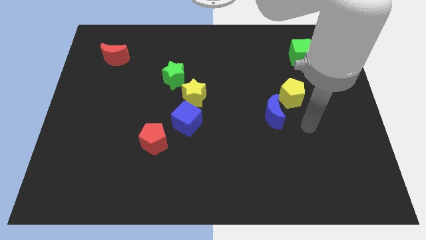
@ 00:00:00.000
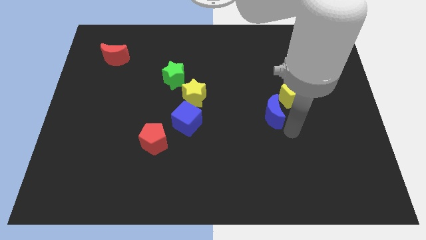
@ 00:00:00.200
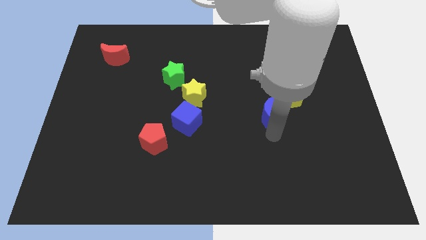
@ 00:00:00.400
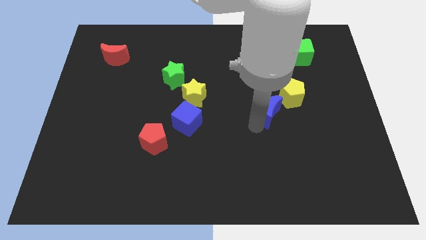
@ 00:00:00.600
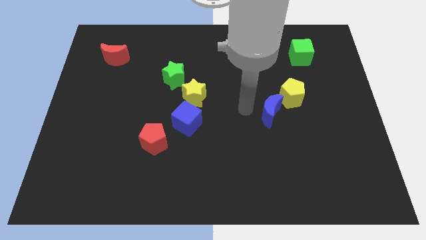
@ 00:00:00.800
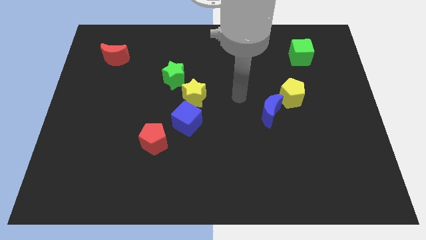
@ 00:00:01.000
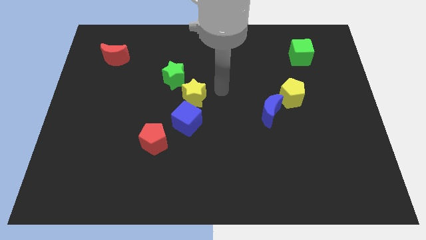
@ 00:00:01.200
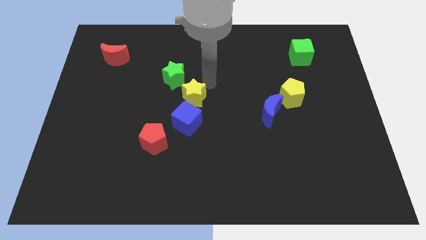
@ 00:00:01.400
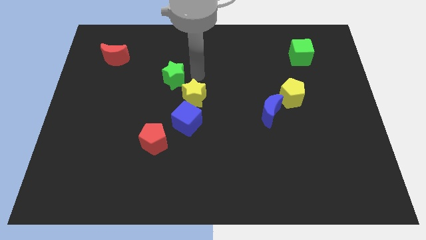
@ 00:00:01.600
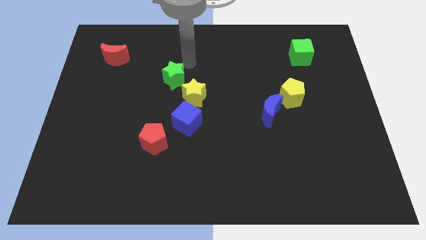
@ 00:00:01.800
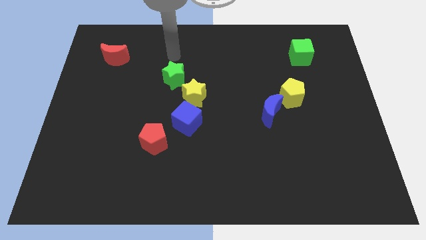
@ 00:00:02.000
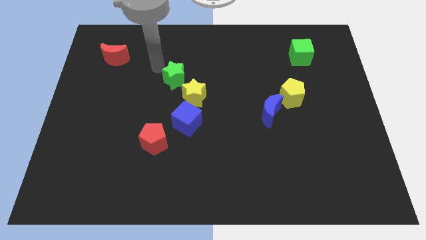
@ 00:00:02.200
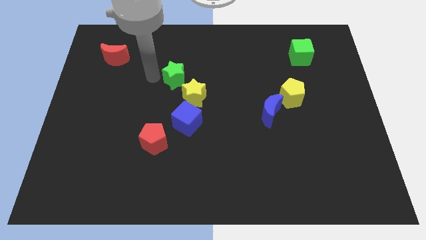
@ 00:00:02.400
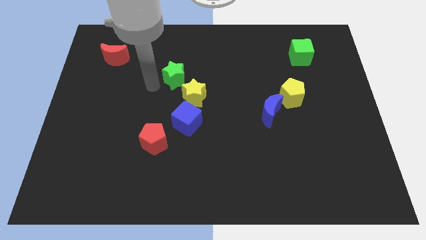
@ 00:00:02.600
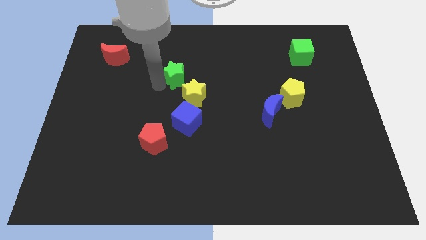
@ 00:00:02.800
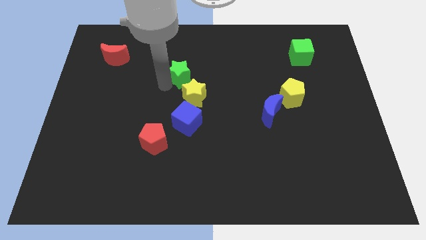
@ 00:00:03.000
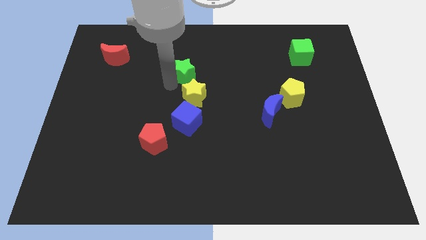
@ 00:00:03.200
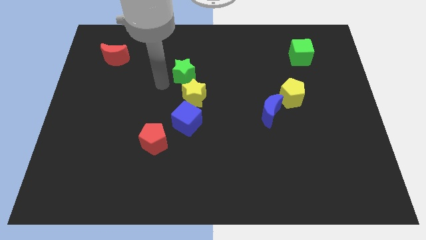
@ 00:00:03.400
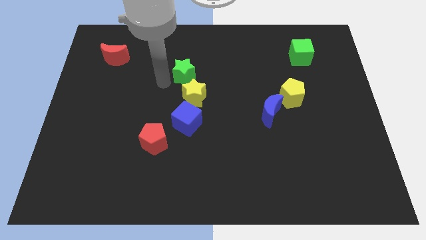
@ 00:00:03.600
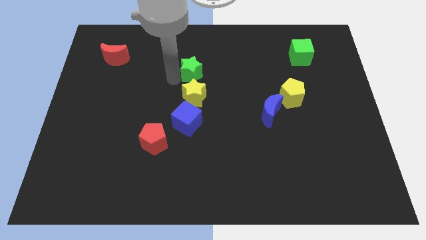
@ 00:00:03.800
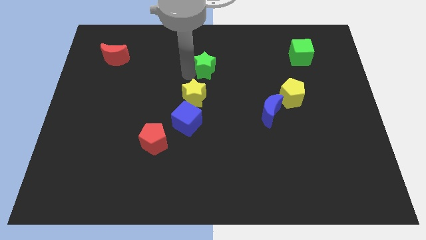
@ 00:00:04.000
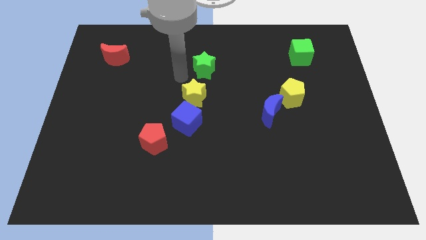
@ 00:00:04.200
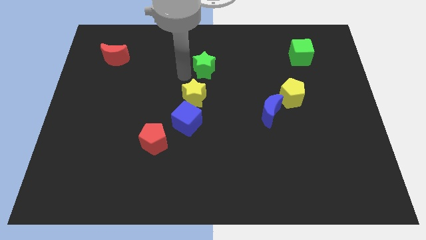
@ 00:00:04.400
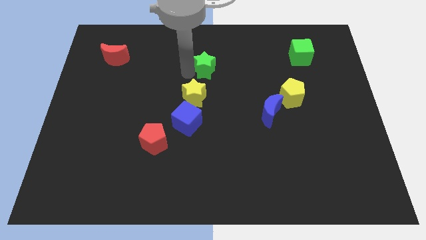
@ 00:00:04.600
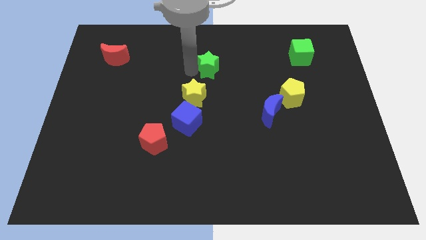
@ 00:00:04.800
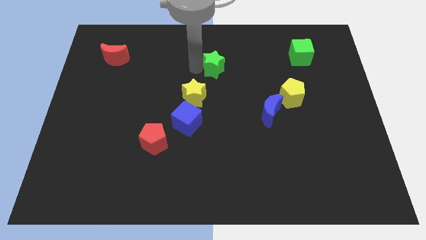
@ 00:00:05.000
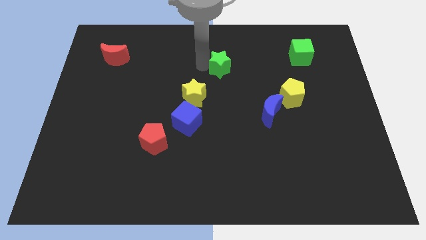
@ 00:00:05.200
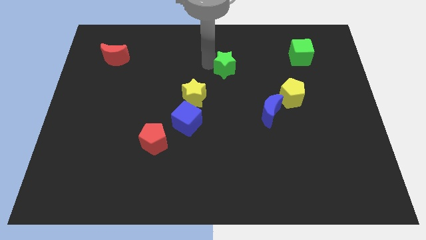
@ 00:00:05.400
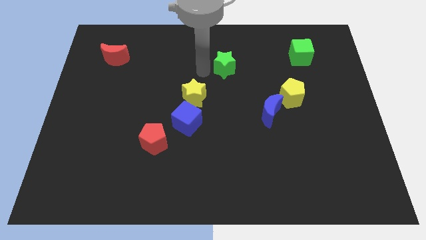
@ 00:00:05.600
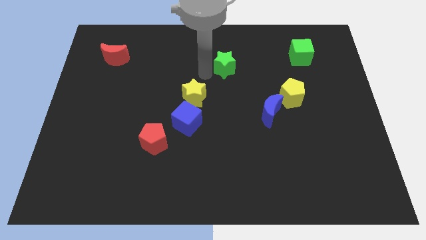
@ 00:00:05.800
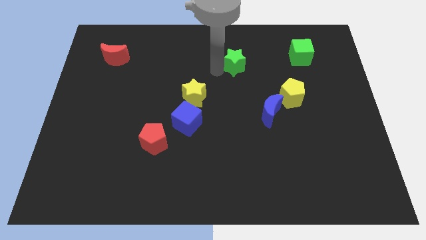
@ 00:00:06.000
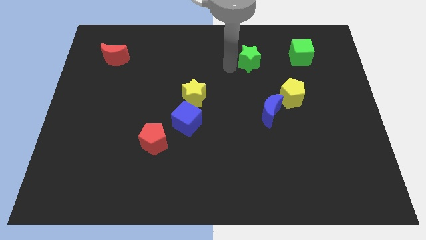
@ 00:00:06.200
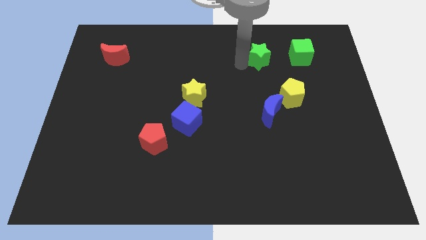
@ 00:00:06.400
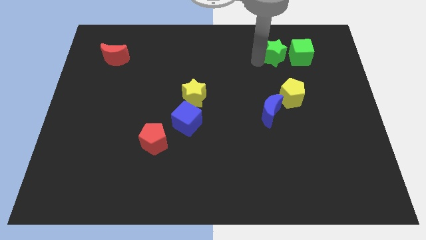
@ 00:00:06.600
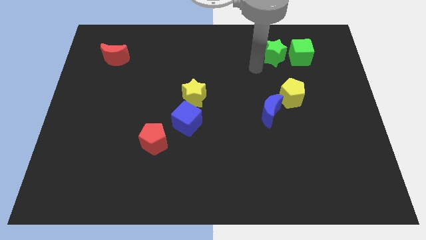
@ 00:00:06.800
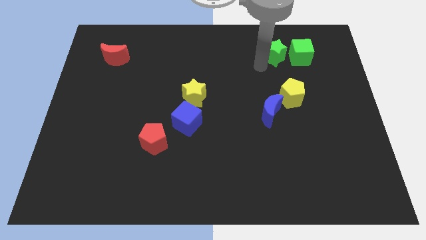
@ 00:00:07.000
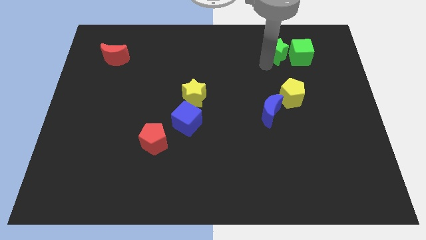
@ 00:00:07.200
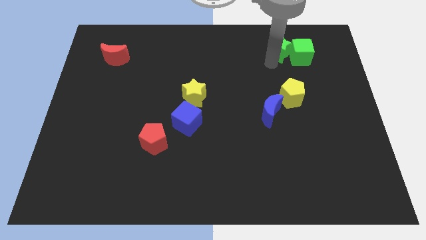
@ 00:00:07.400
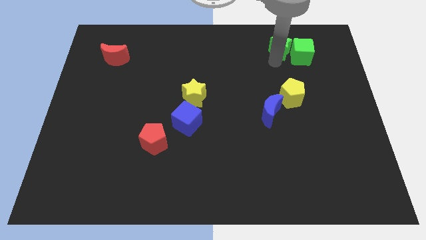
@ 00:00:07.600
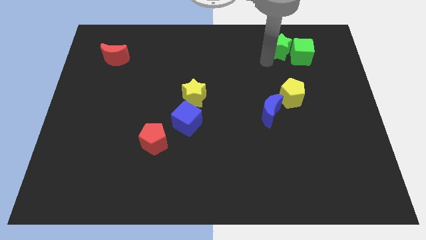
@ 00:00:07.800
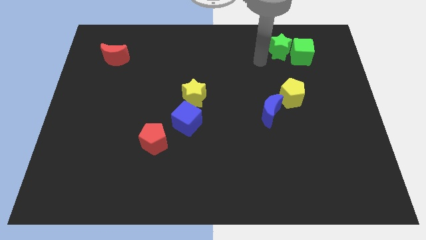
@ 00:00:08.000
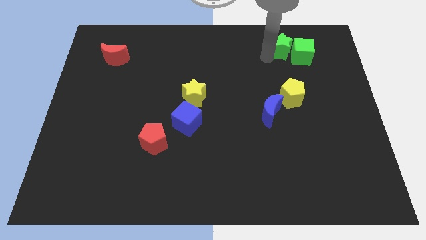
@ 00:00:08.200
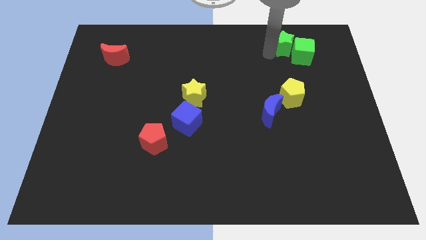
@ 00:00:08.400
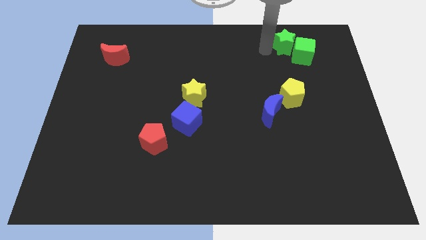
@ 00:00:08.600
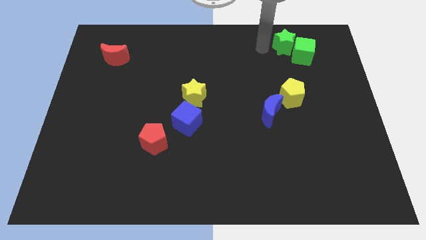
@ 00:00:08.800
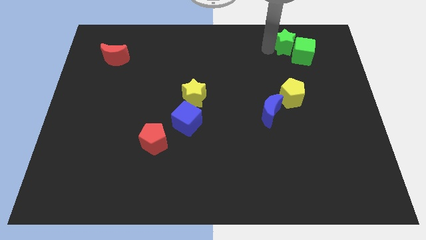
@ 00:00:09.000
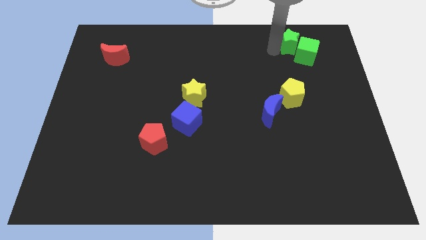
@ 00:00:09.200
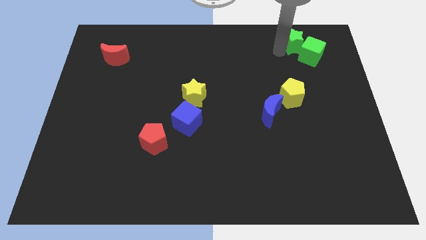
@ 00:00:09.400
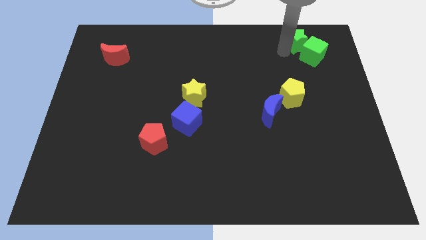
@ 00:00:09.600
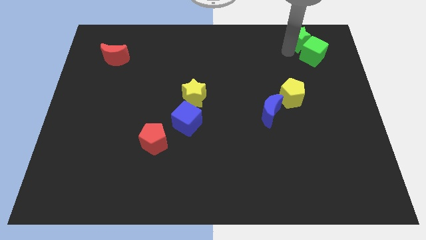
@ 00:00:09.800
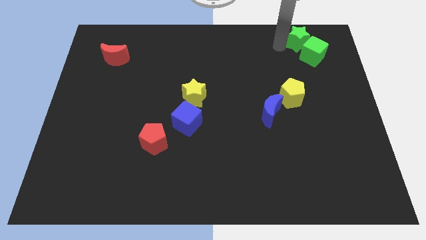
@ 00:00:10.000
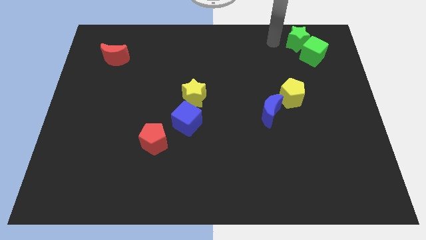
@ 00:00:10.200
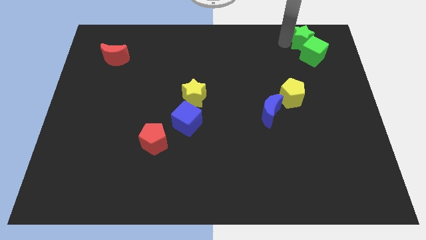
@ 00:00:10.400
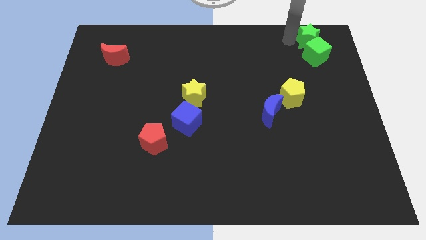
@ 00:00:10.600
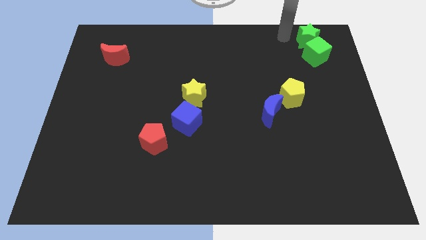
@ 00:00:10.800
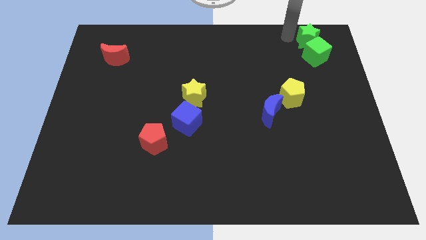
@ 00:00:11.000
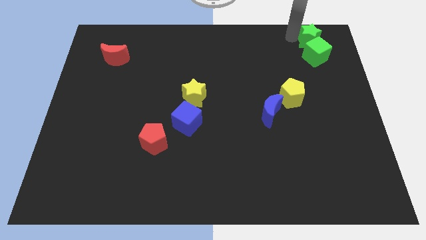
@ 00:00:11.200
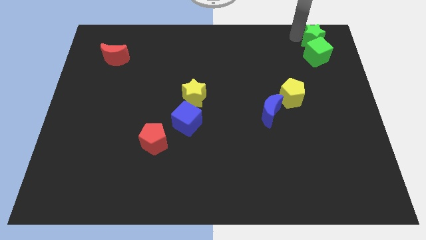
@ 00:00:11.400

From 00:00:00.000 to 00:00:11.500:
move the green star to the top right corner

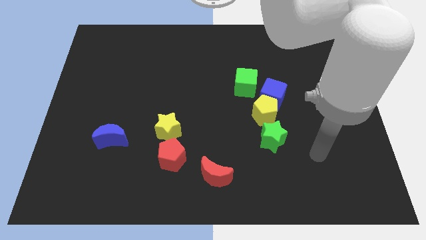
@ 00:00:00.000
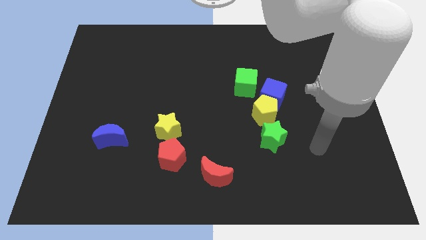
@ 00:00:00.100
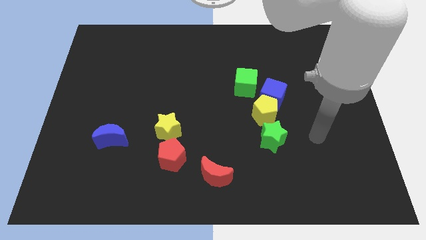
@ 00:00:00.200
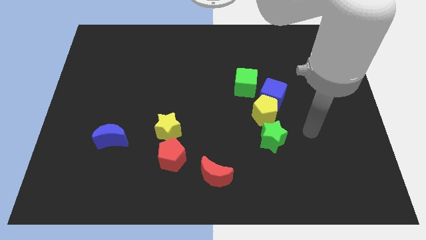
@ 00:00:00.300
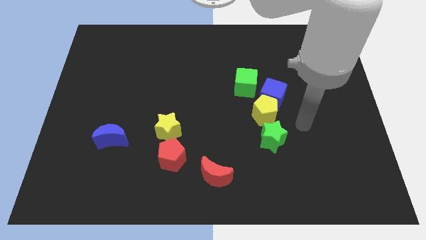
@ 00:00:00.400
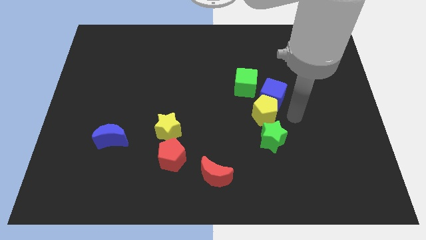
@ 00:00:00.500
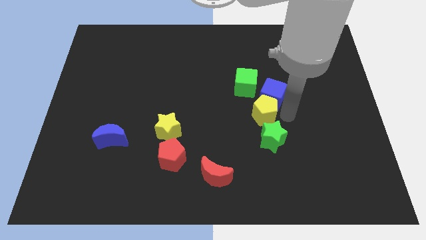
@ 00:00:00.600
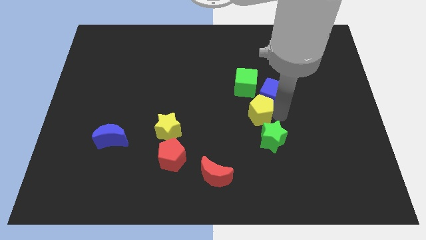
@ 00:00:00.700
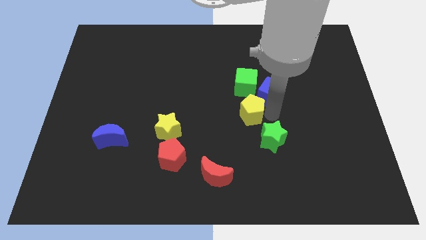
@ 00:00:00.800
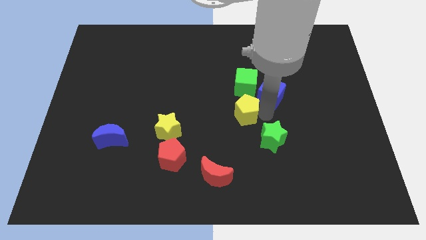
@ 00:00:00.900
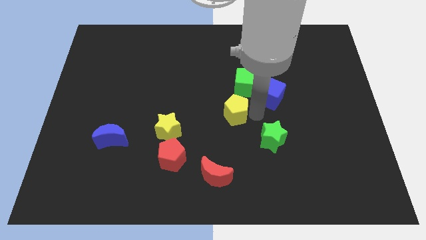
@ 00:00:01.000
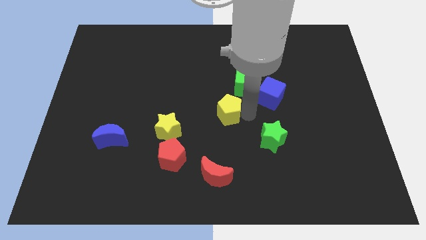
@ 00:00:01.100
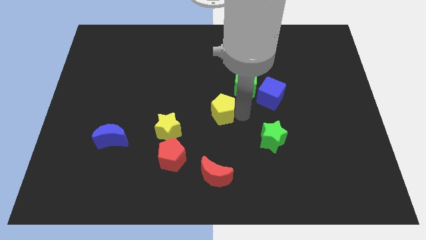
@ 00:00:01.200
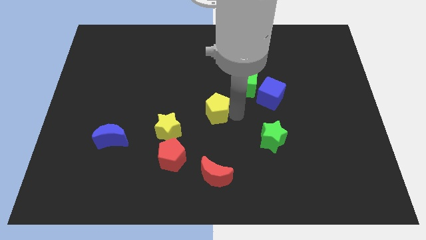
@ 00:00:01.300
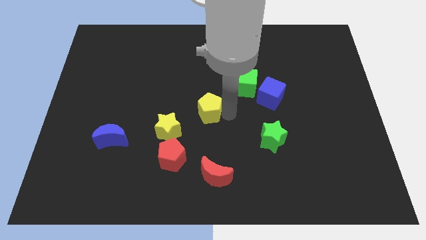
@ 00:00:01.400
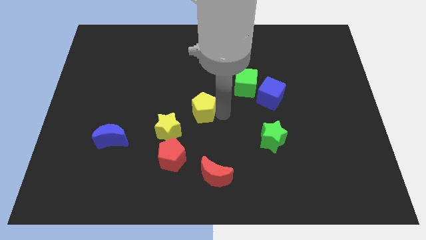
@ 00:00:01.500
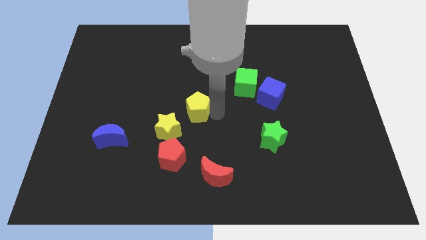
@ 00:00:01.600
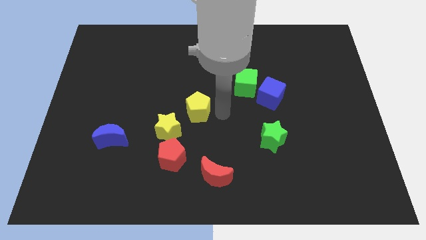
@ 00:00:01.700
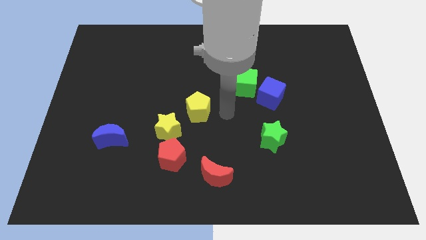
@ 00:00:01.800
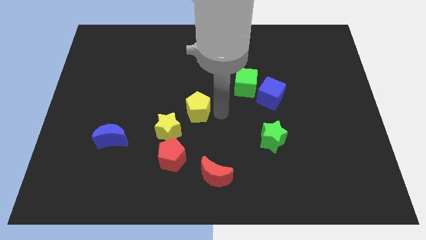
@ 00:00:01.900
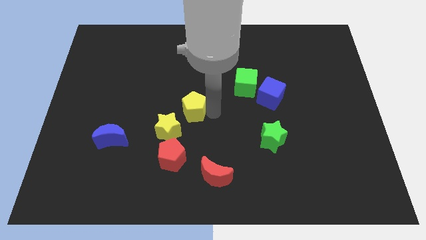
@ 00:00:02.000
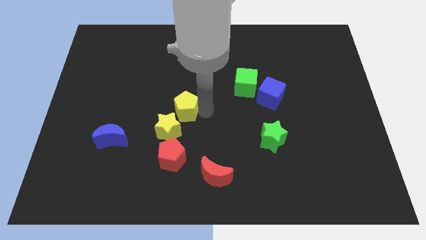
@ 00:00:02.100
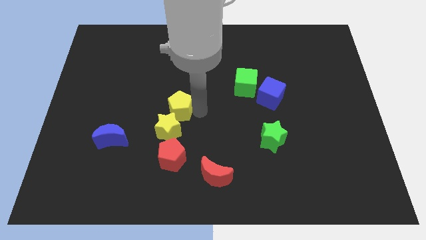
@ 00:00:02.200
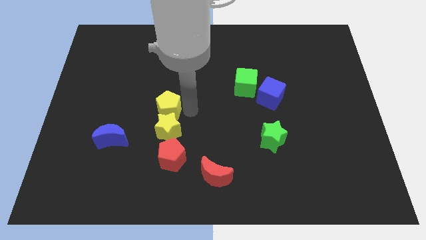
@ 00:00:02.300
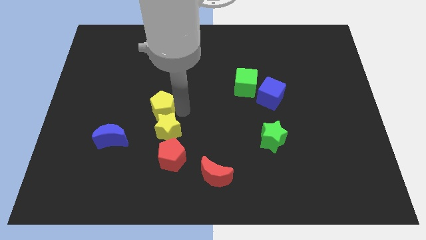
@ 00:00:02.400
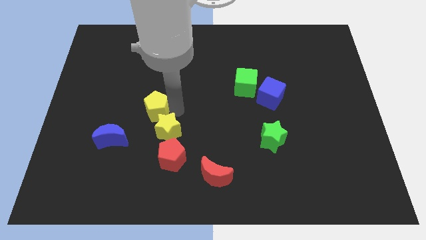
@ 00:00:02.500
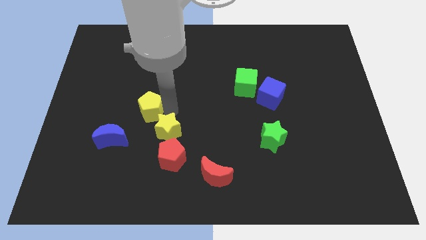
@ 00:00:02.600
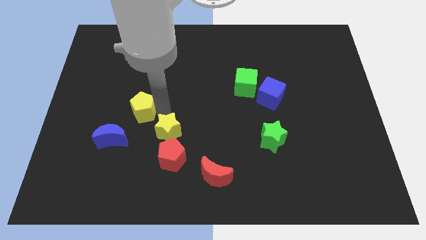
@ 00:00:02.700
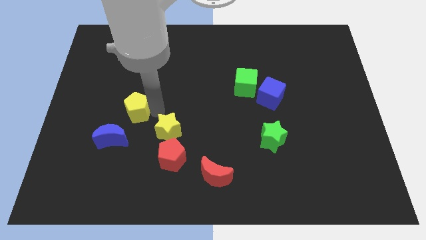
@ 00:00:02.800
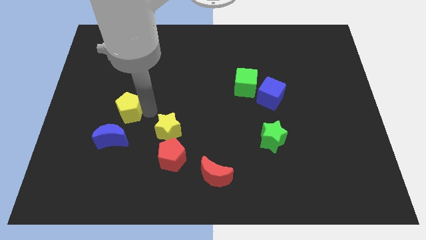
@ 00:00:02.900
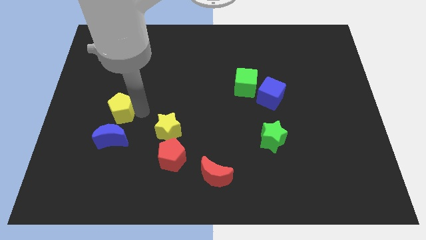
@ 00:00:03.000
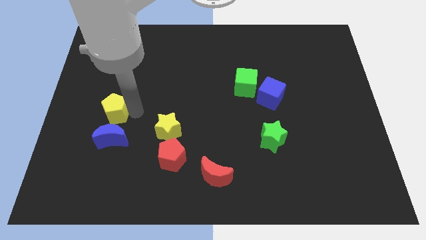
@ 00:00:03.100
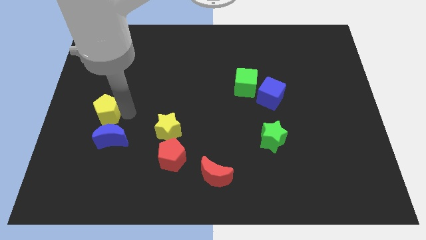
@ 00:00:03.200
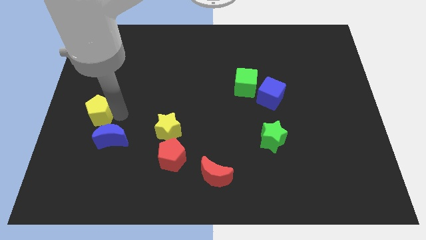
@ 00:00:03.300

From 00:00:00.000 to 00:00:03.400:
move the yellow pentagon to the left side

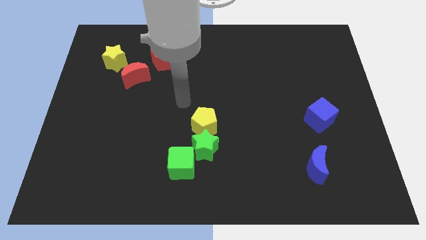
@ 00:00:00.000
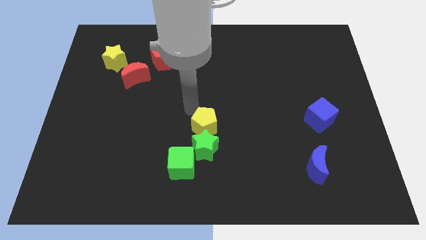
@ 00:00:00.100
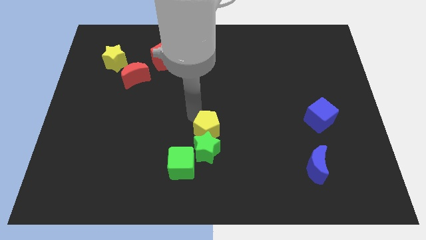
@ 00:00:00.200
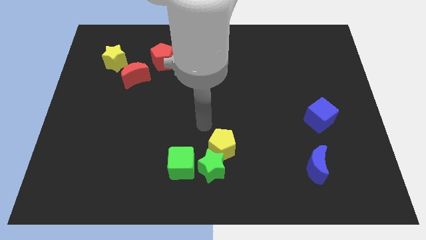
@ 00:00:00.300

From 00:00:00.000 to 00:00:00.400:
move the green star to the bottom side
